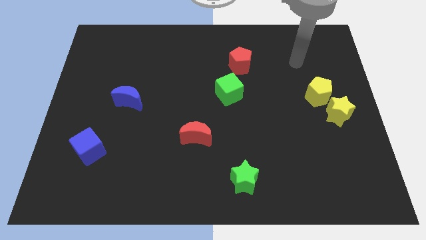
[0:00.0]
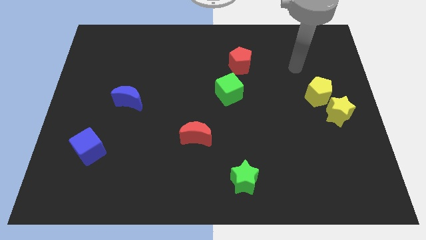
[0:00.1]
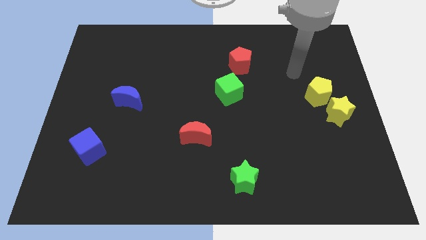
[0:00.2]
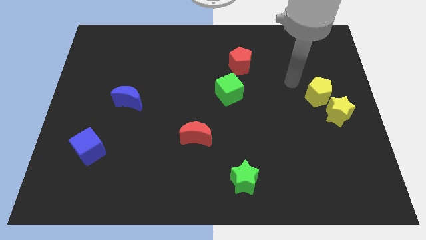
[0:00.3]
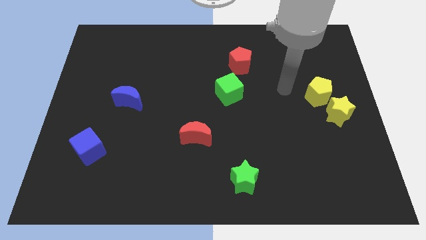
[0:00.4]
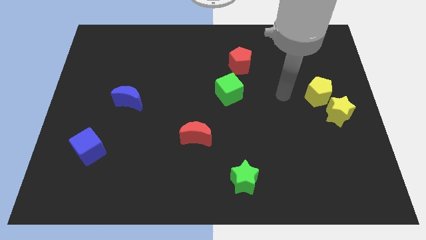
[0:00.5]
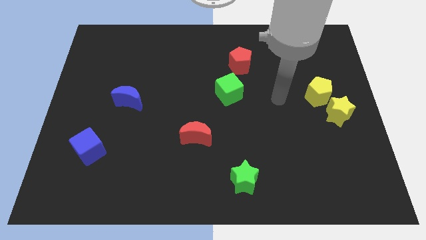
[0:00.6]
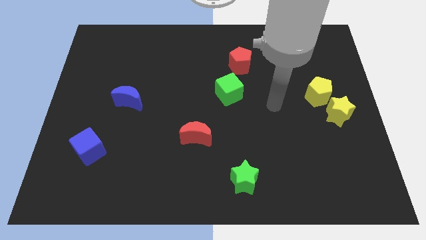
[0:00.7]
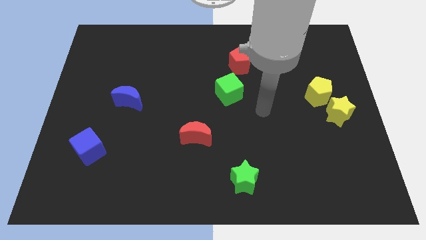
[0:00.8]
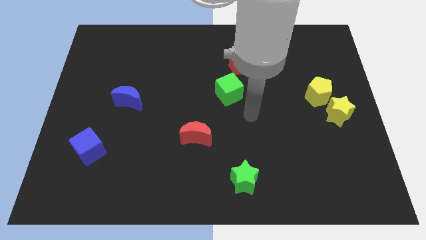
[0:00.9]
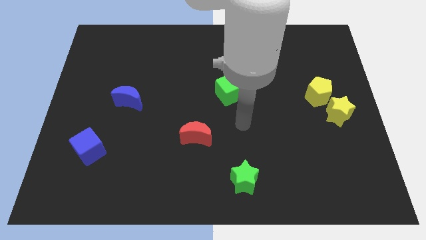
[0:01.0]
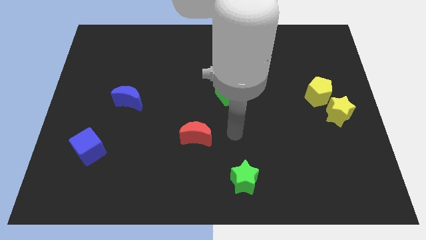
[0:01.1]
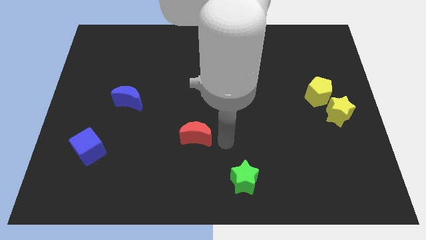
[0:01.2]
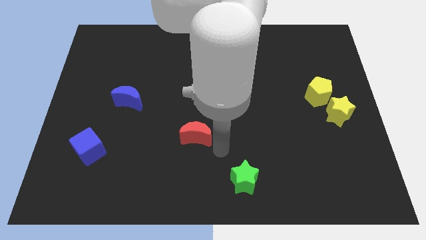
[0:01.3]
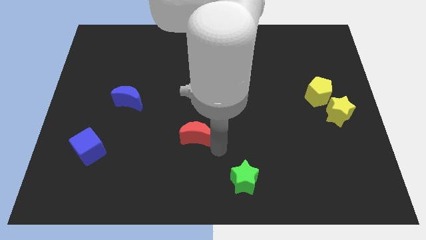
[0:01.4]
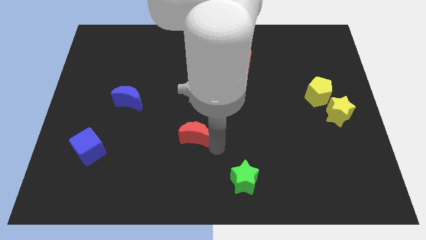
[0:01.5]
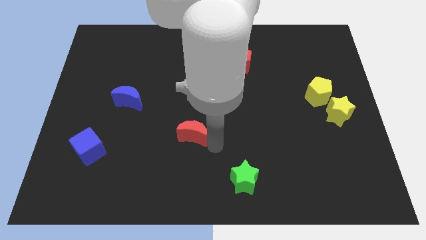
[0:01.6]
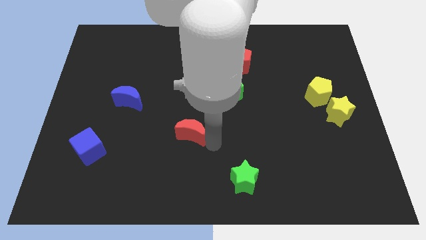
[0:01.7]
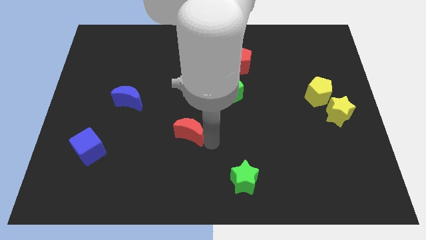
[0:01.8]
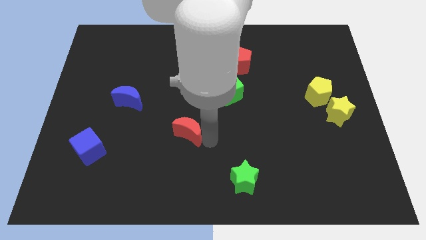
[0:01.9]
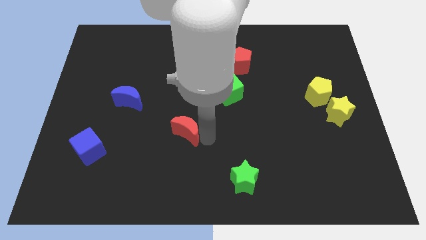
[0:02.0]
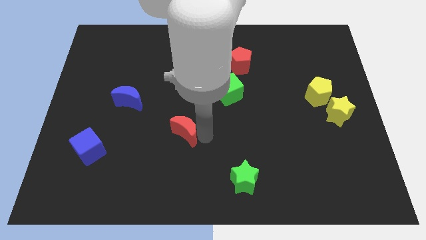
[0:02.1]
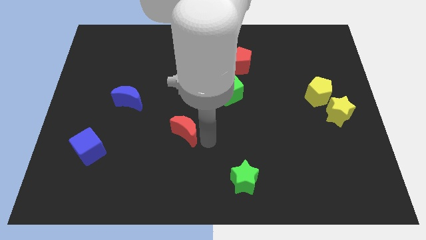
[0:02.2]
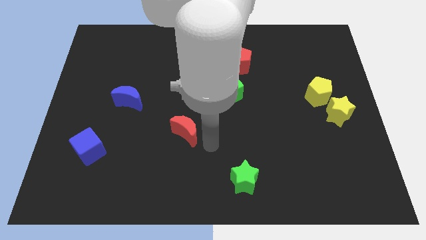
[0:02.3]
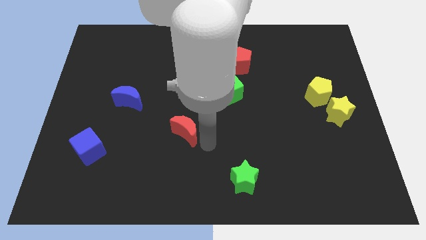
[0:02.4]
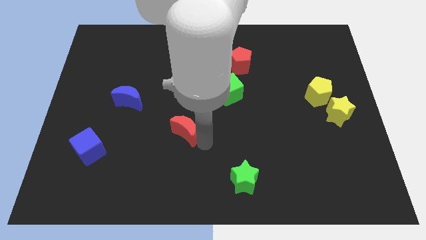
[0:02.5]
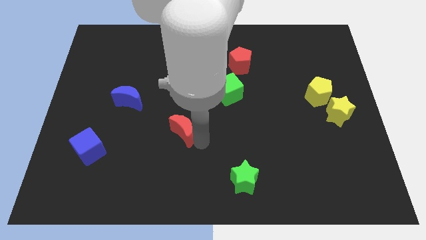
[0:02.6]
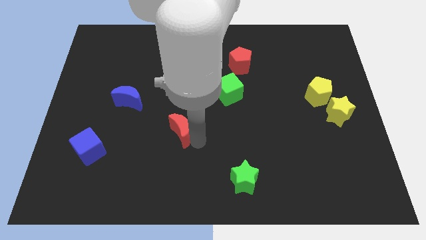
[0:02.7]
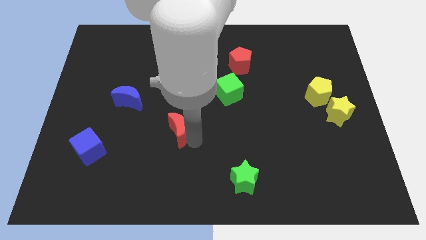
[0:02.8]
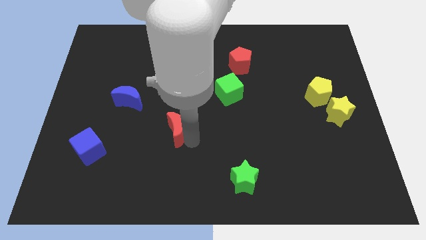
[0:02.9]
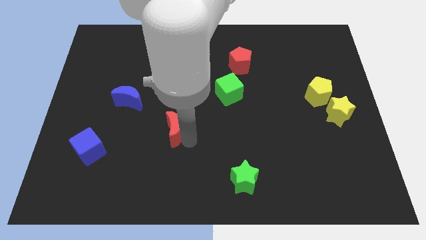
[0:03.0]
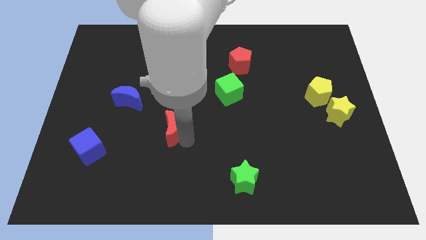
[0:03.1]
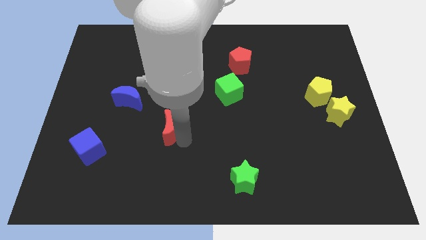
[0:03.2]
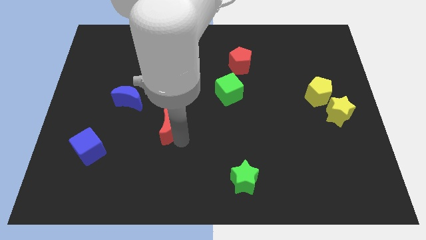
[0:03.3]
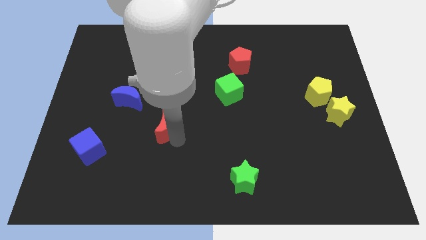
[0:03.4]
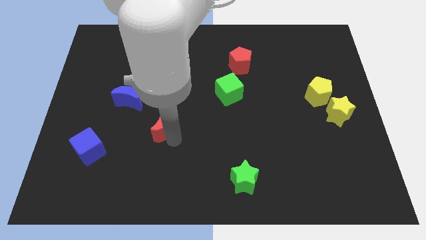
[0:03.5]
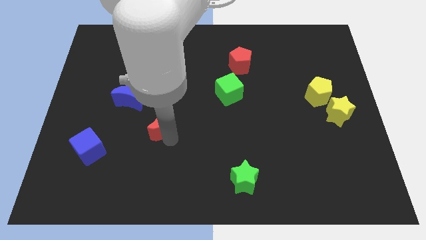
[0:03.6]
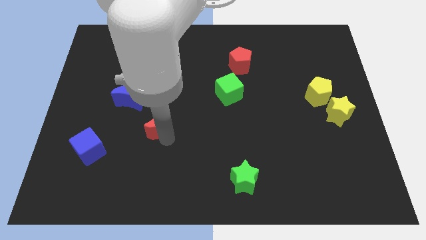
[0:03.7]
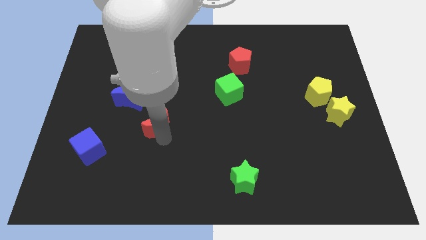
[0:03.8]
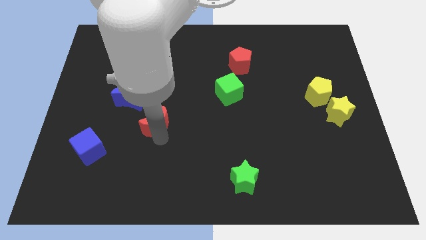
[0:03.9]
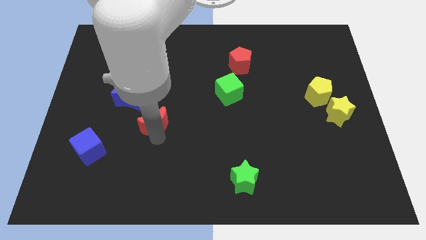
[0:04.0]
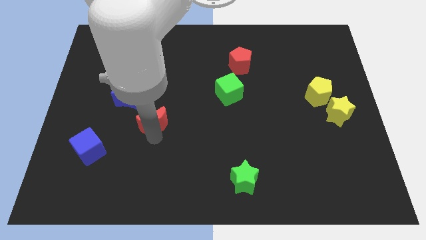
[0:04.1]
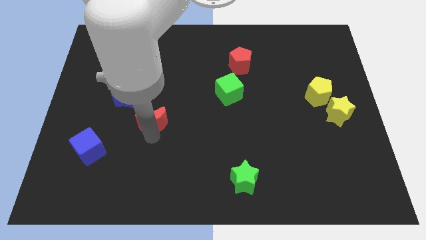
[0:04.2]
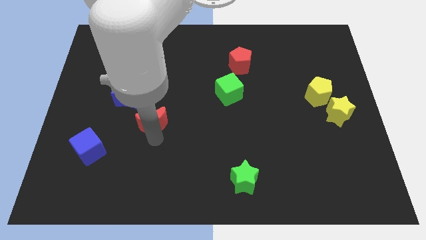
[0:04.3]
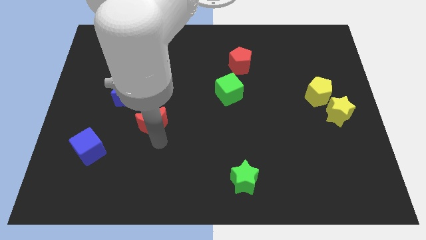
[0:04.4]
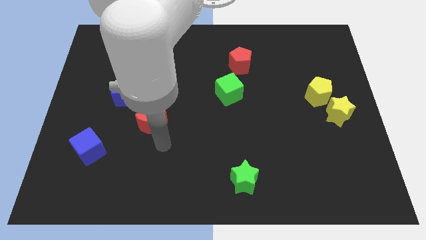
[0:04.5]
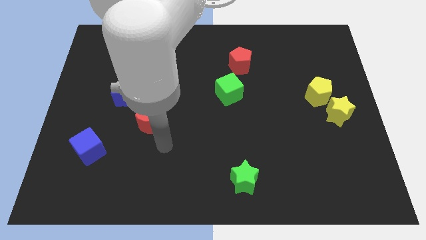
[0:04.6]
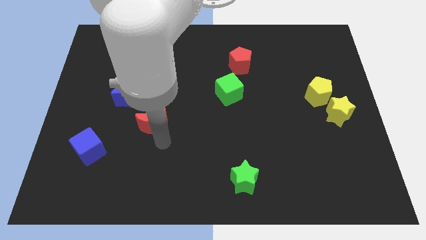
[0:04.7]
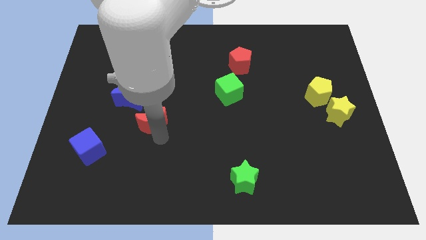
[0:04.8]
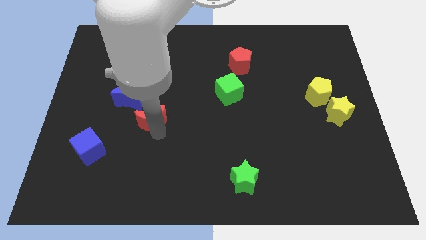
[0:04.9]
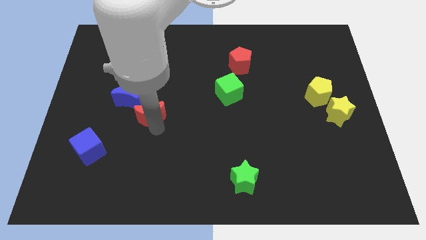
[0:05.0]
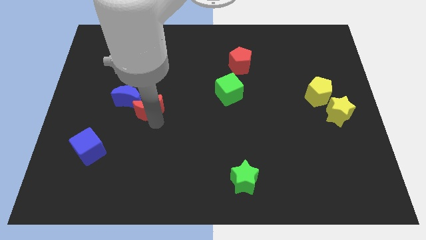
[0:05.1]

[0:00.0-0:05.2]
slide the red moon to the blue moon

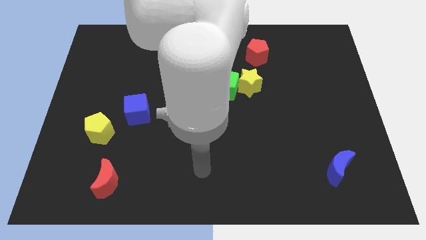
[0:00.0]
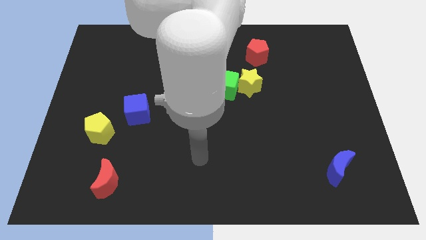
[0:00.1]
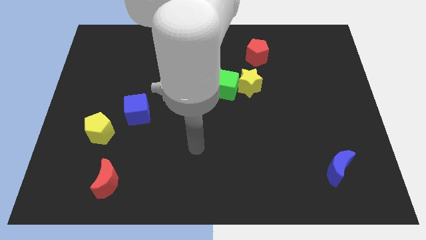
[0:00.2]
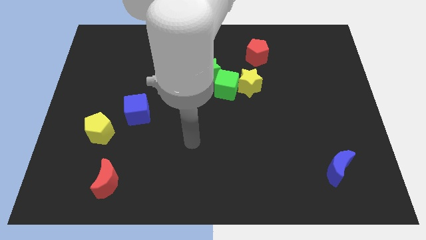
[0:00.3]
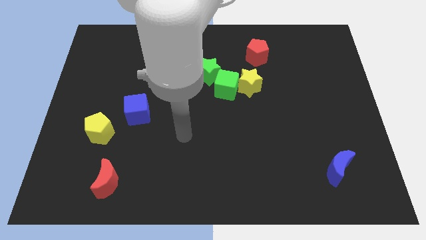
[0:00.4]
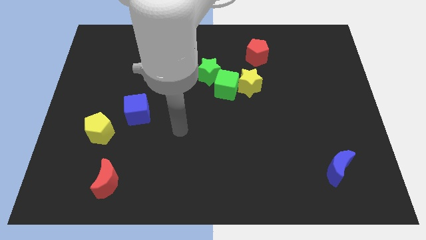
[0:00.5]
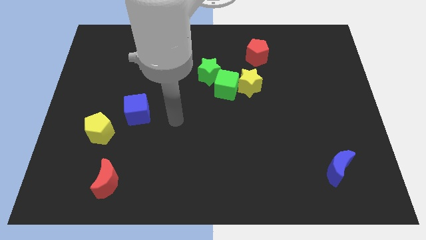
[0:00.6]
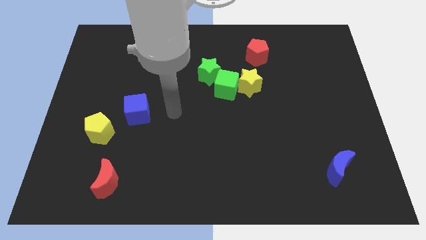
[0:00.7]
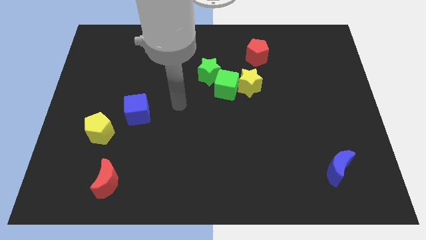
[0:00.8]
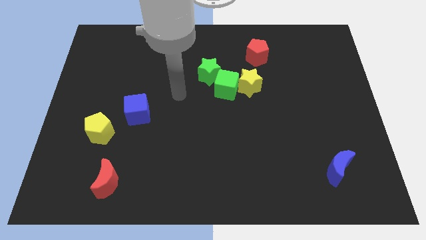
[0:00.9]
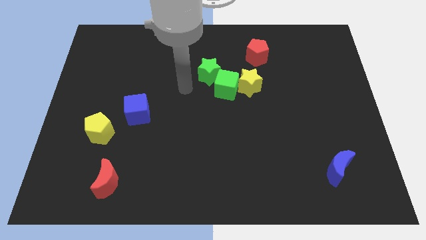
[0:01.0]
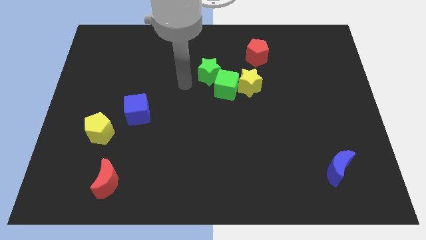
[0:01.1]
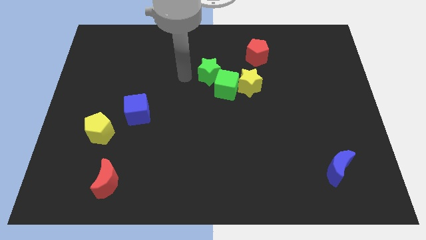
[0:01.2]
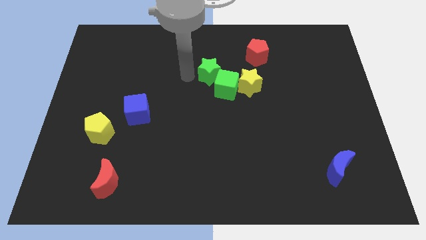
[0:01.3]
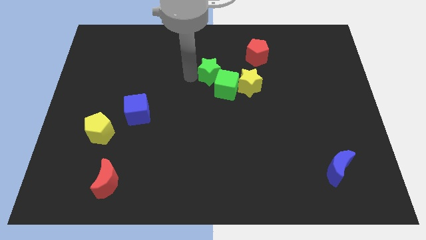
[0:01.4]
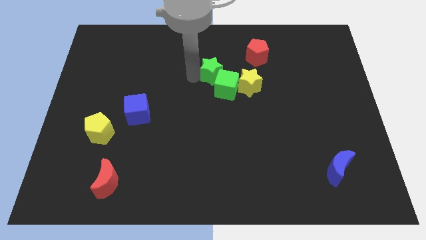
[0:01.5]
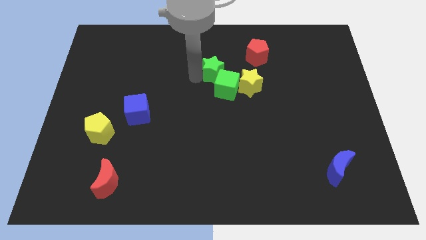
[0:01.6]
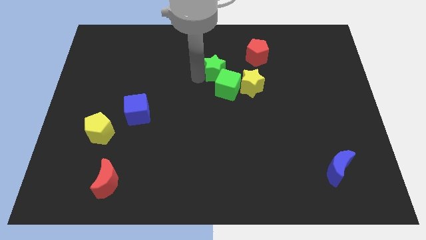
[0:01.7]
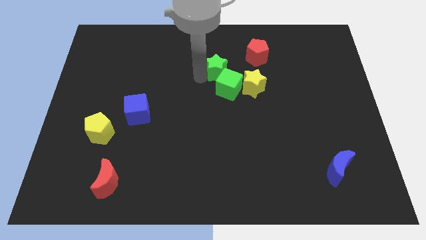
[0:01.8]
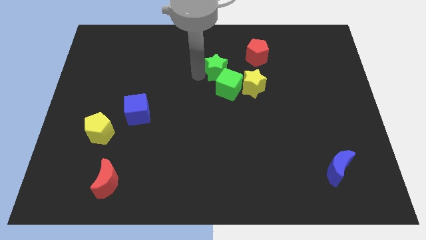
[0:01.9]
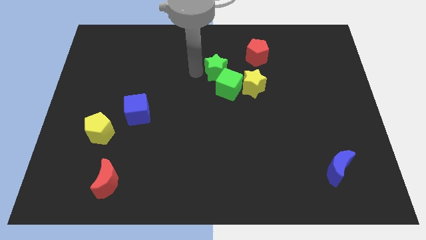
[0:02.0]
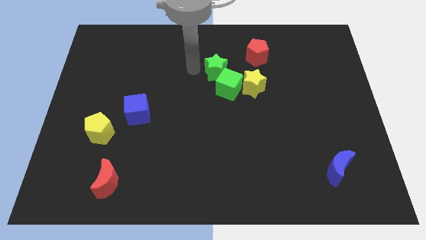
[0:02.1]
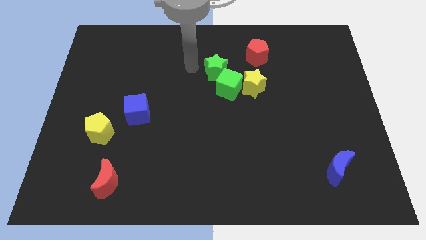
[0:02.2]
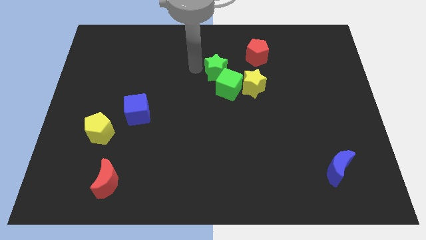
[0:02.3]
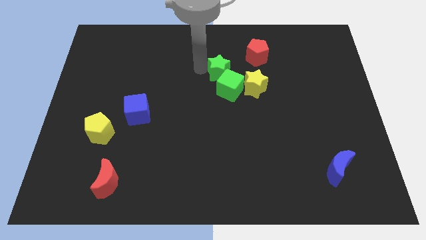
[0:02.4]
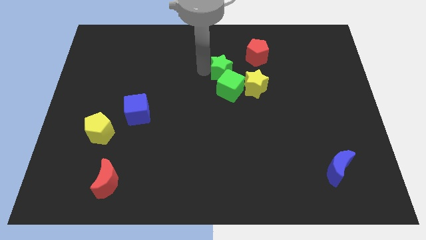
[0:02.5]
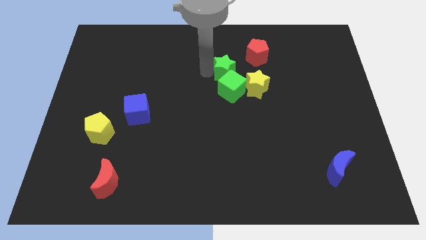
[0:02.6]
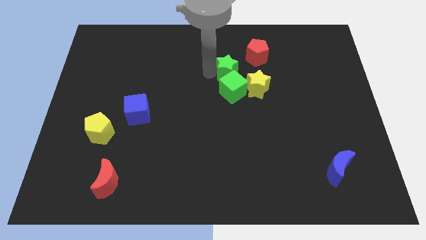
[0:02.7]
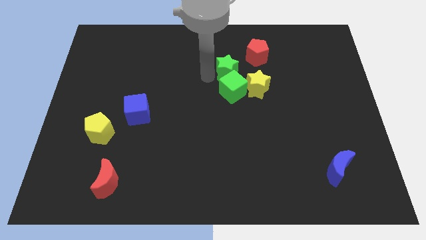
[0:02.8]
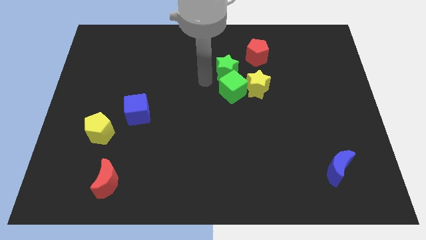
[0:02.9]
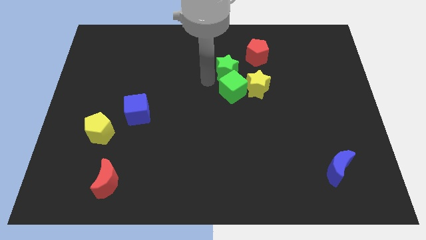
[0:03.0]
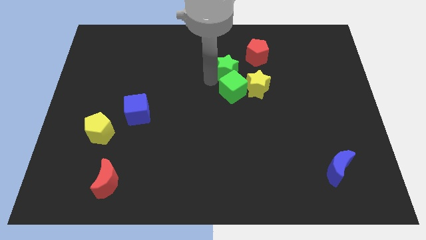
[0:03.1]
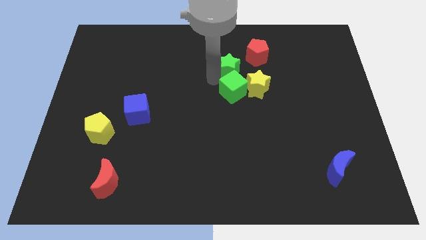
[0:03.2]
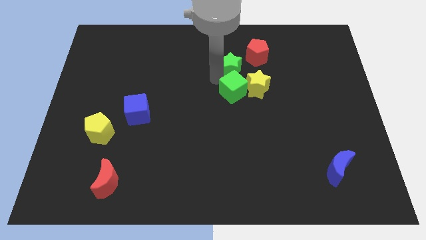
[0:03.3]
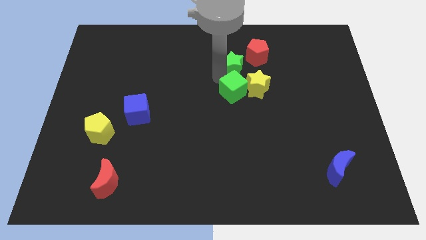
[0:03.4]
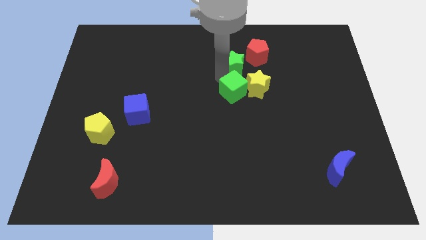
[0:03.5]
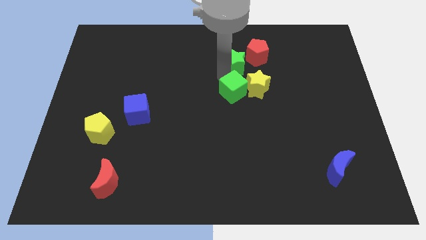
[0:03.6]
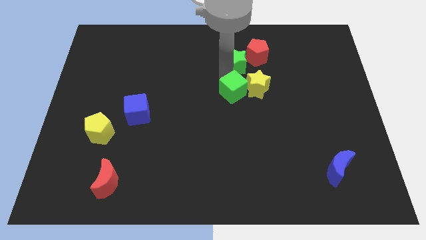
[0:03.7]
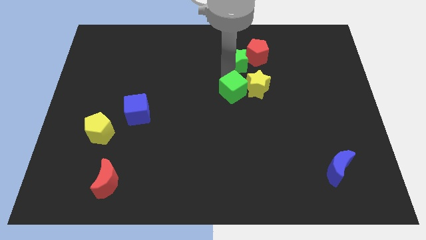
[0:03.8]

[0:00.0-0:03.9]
slide the green star close to the red pentagon
